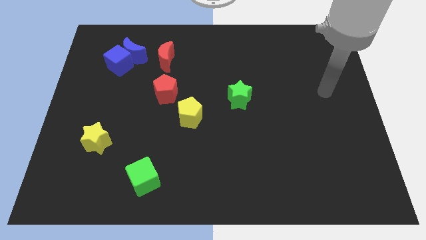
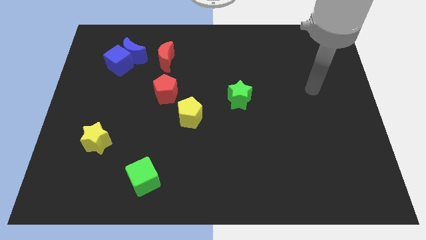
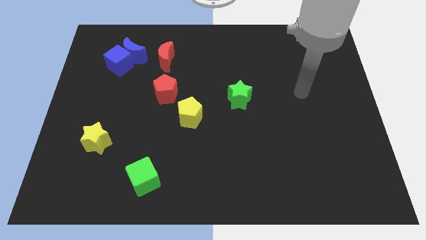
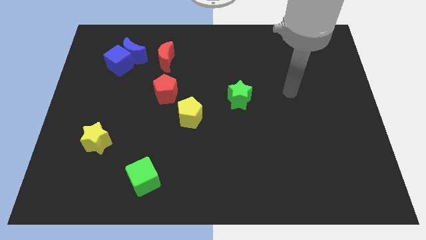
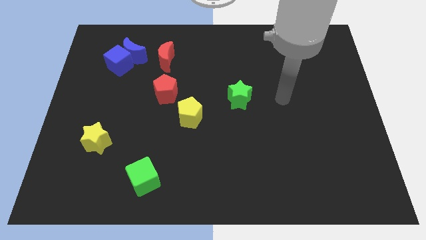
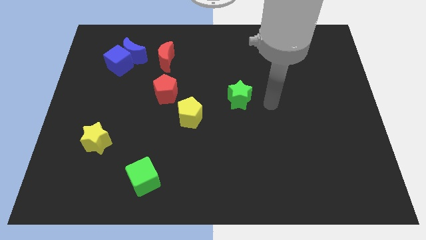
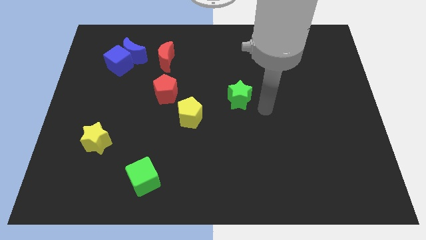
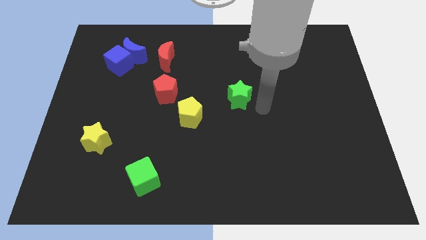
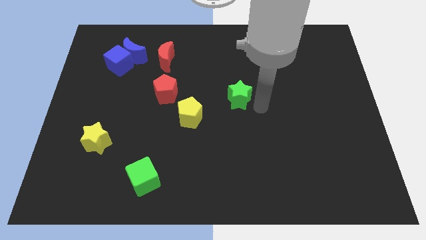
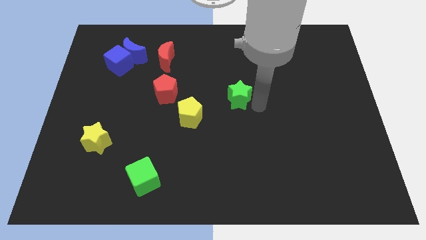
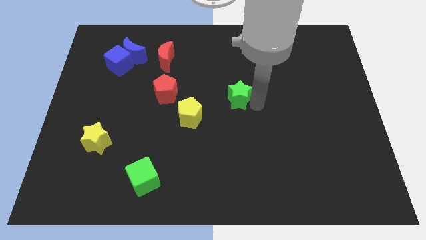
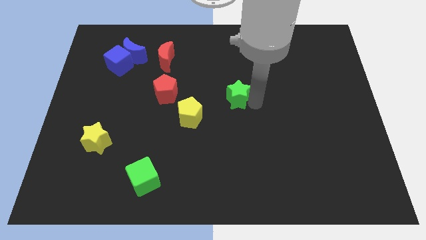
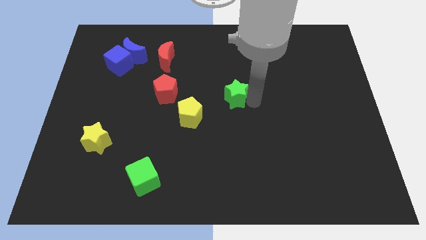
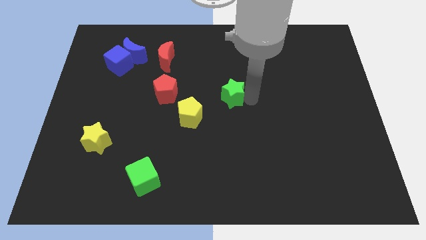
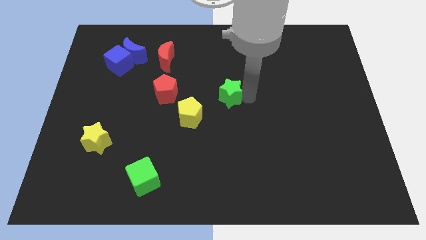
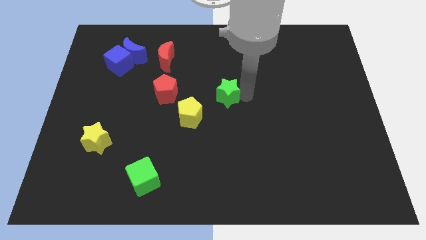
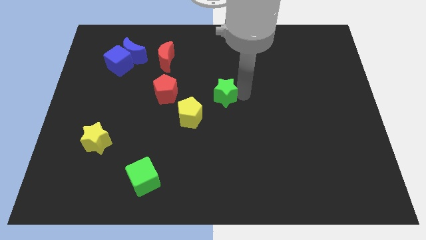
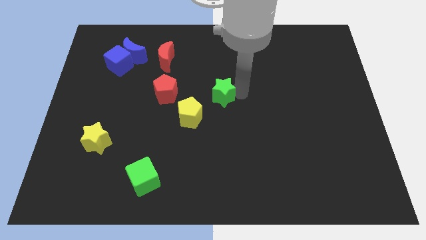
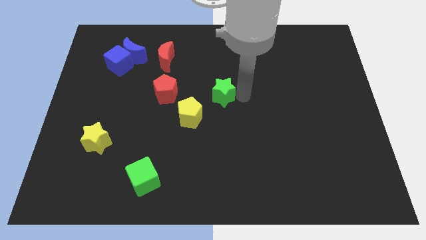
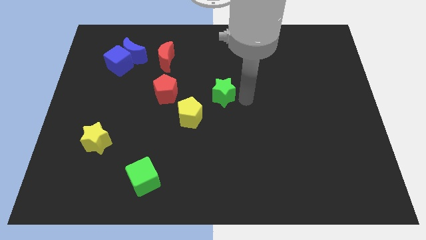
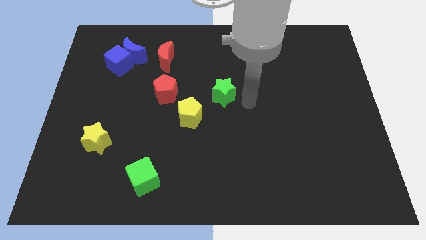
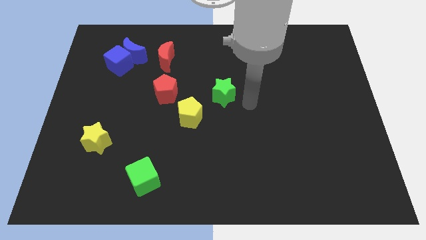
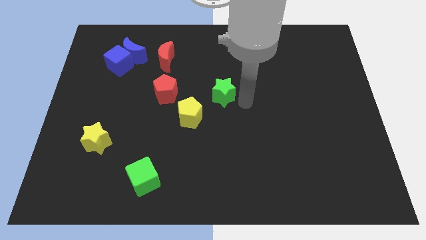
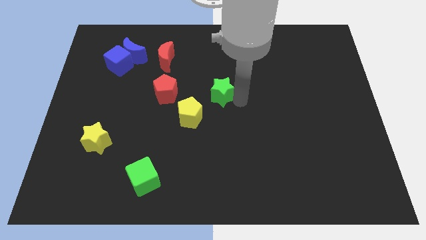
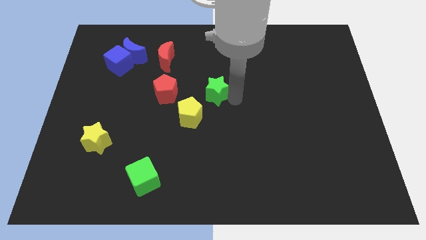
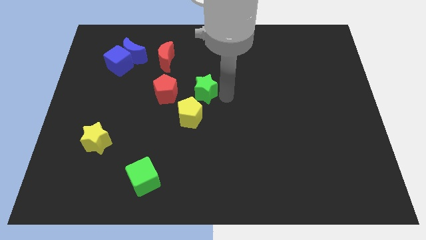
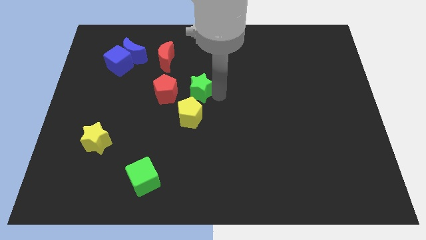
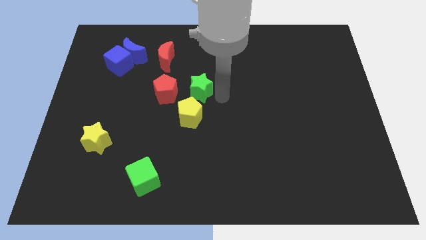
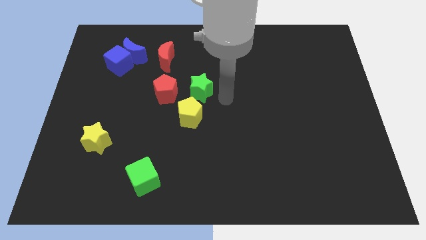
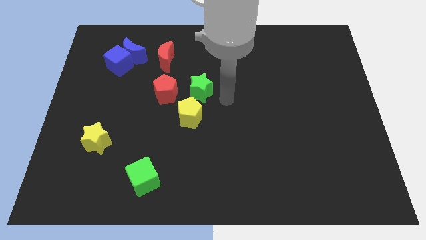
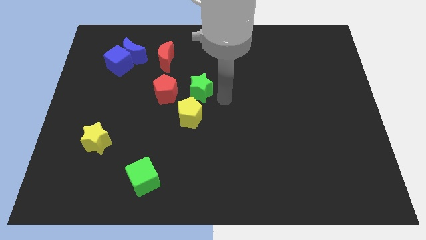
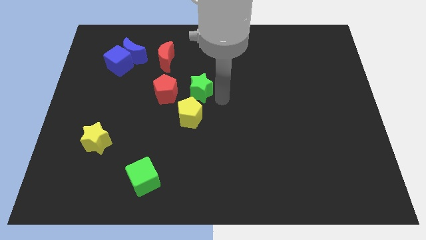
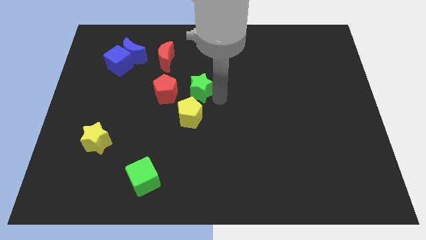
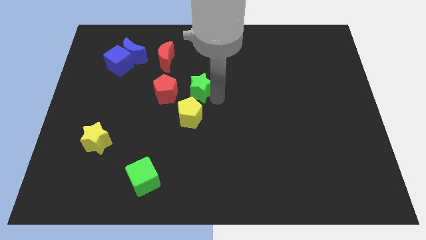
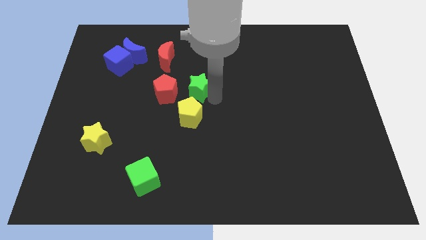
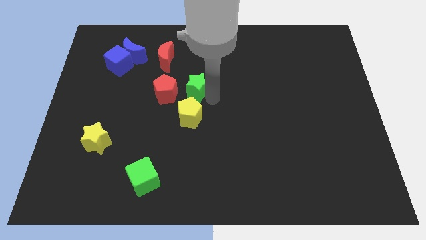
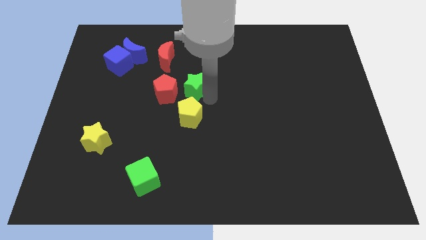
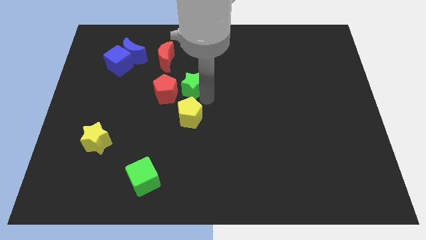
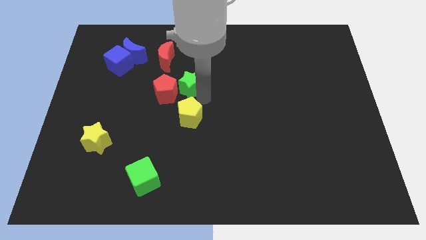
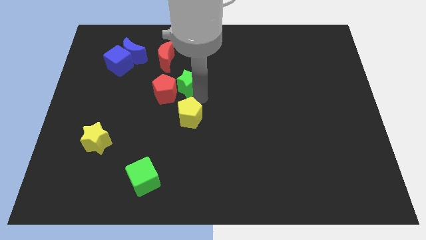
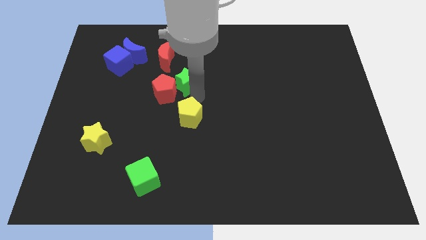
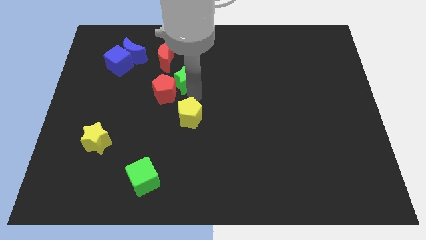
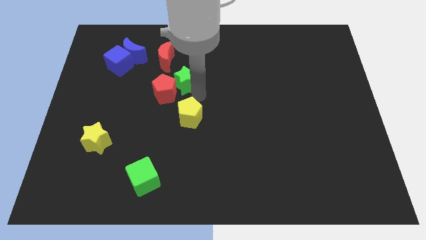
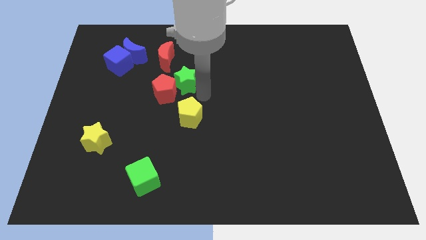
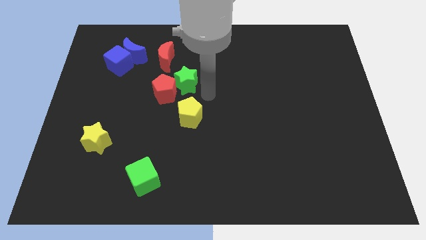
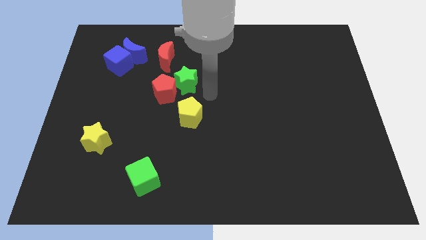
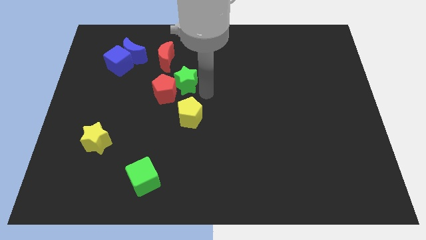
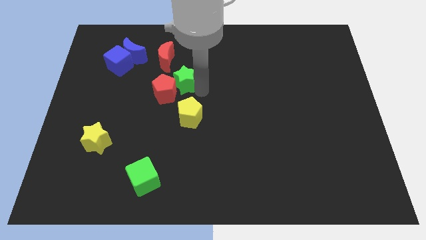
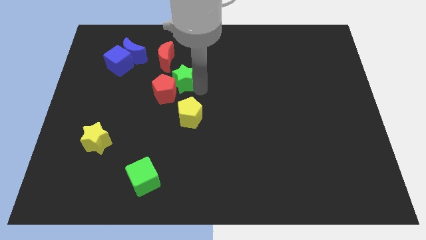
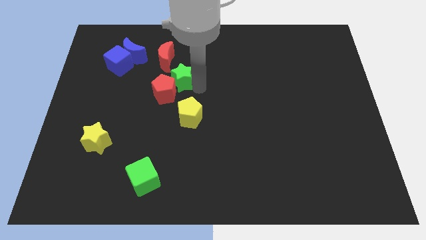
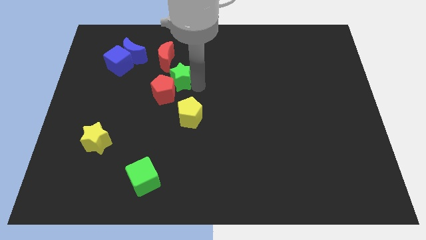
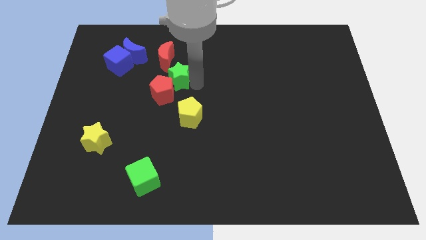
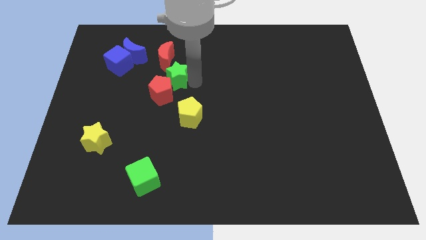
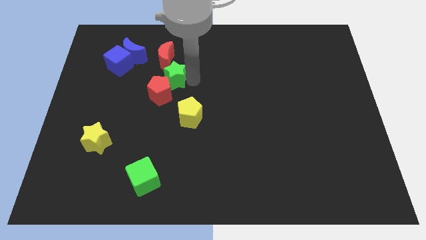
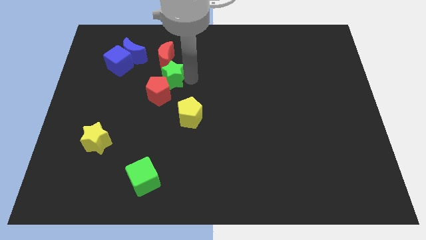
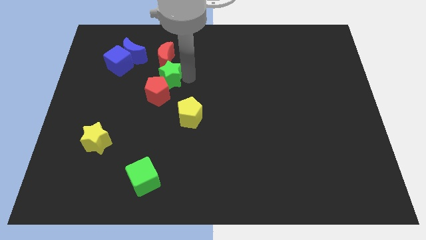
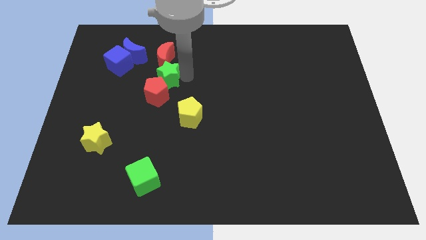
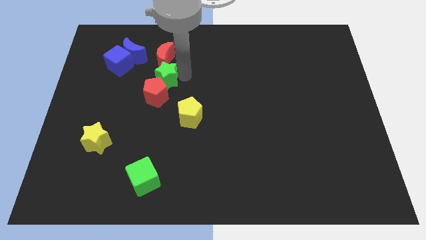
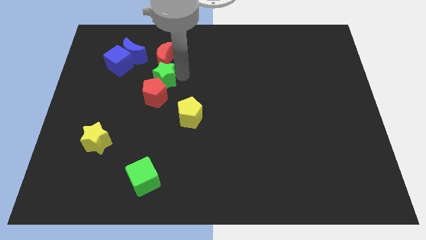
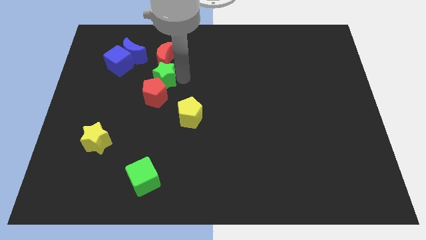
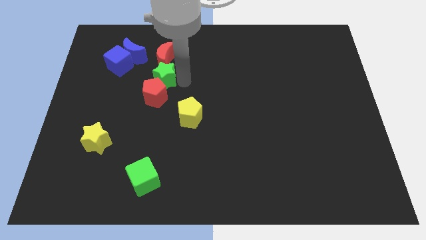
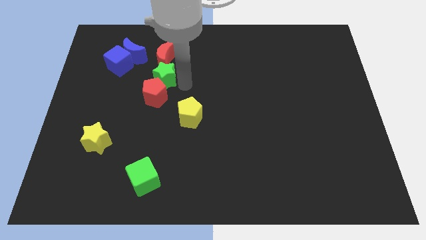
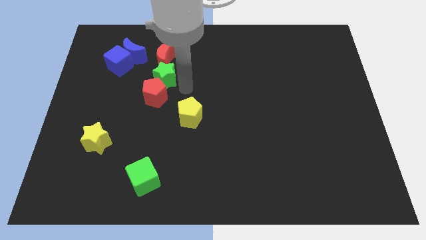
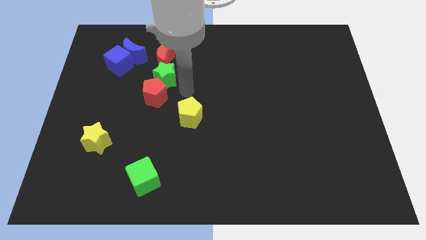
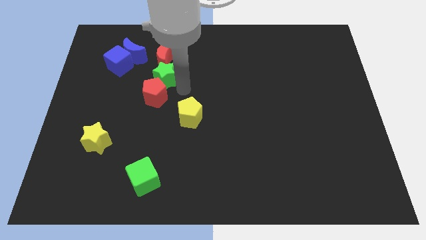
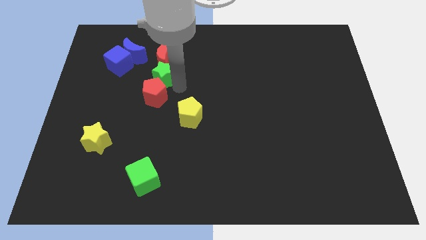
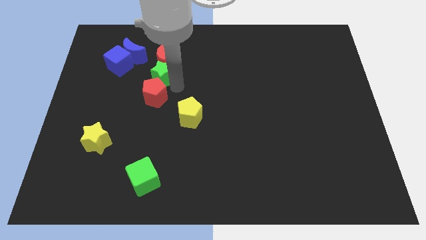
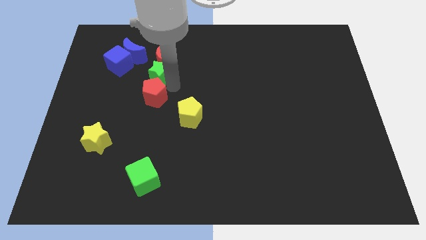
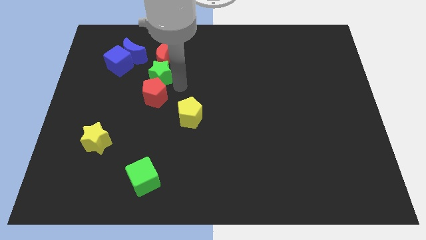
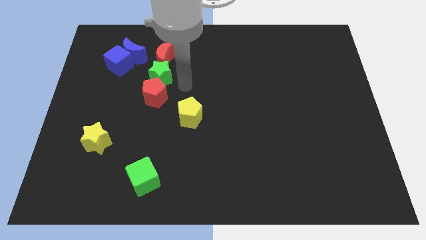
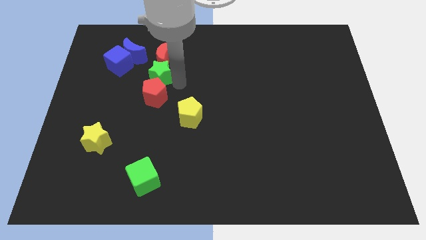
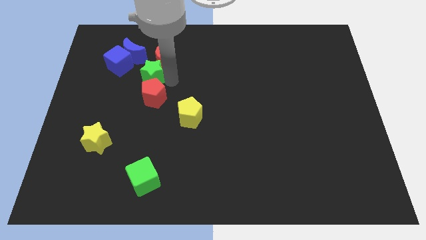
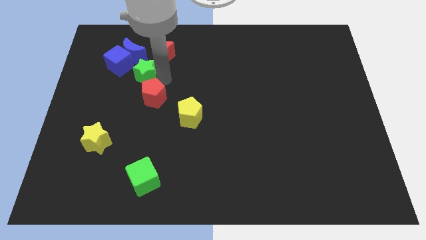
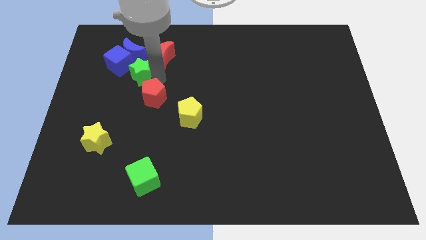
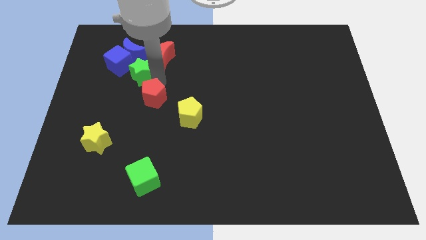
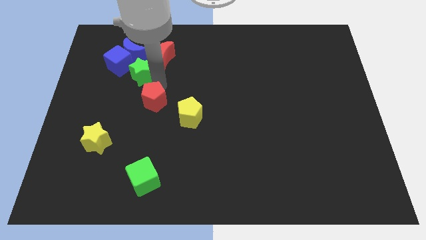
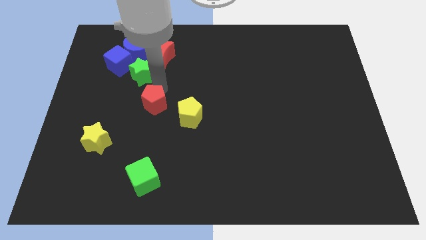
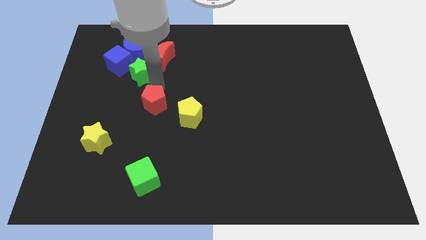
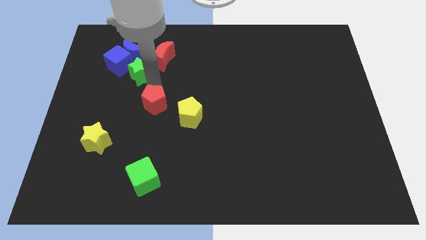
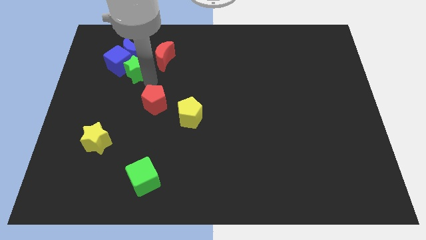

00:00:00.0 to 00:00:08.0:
slide the green star to the blue cube
